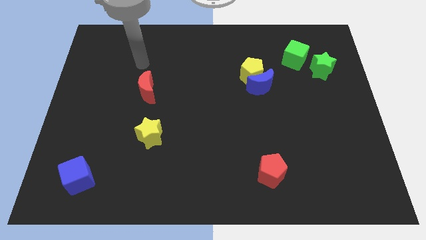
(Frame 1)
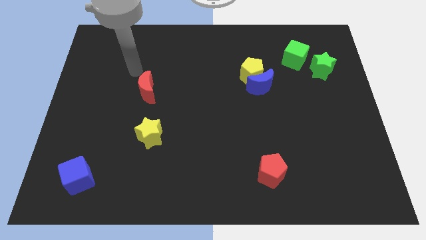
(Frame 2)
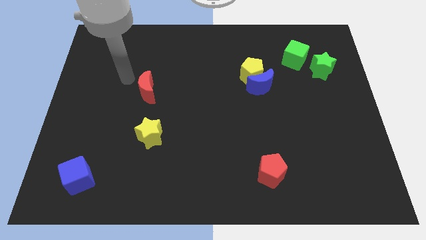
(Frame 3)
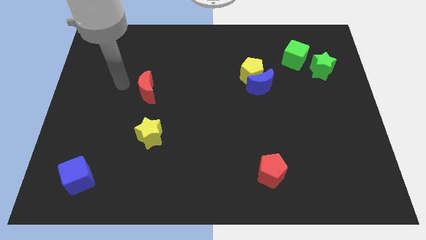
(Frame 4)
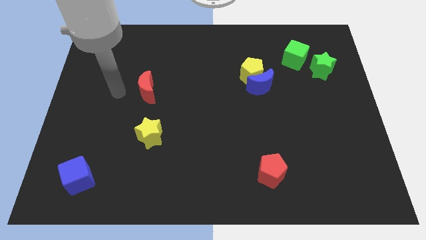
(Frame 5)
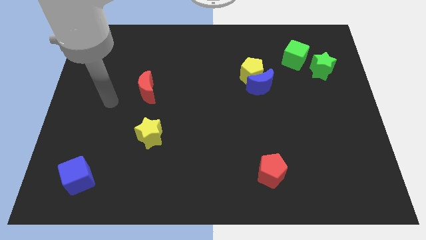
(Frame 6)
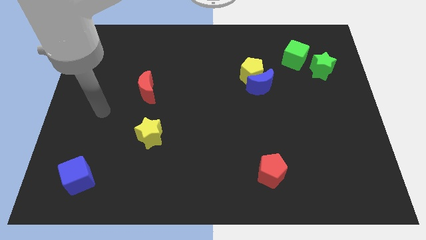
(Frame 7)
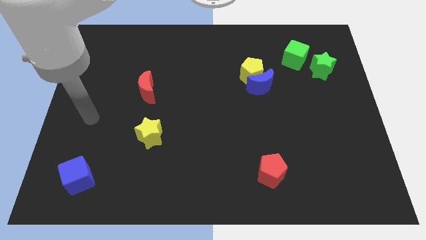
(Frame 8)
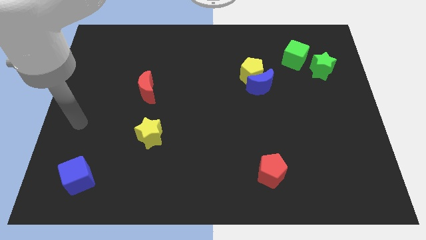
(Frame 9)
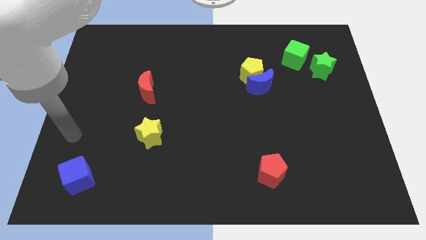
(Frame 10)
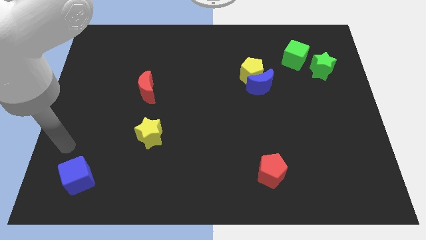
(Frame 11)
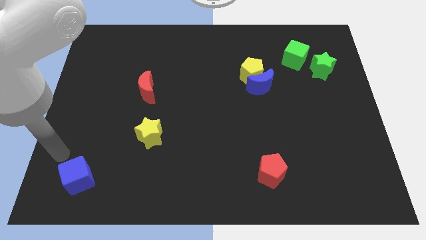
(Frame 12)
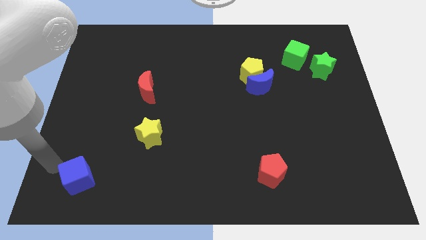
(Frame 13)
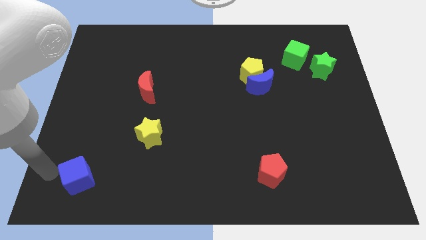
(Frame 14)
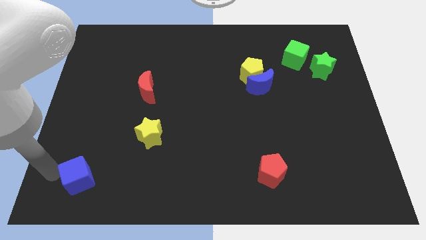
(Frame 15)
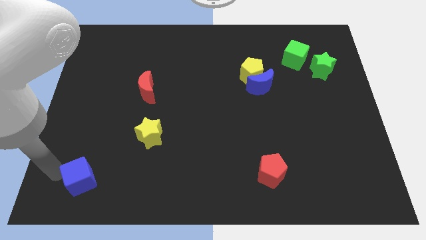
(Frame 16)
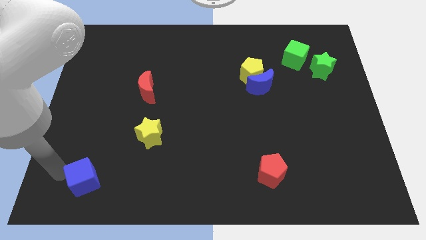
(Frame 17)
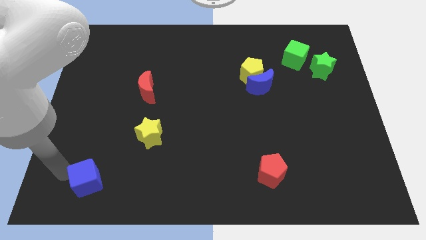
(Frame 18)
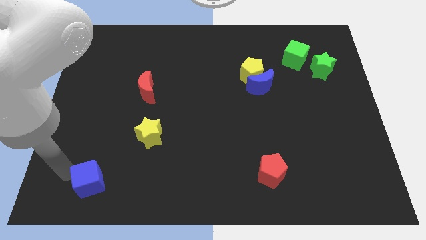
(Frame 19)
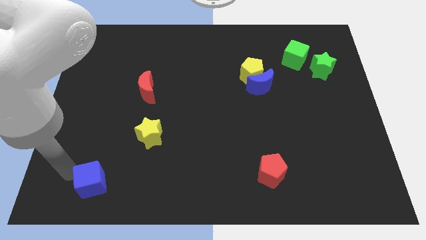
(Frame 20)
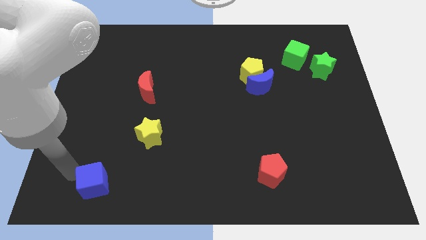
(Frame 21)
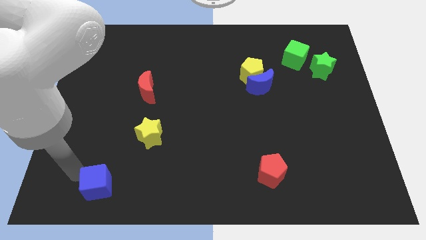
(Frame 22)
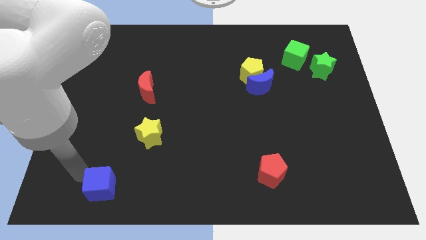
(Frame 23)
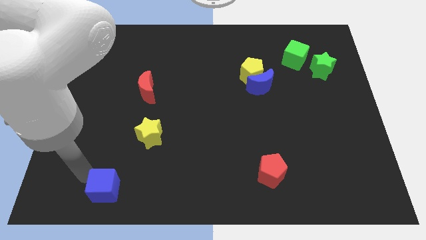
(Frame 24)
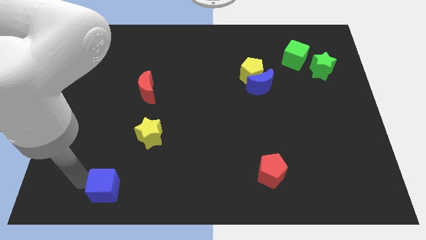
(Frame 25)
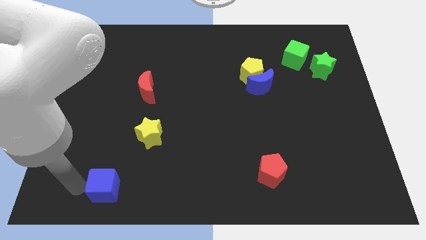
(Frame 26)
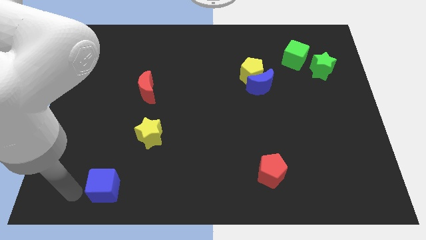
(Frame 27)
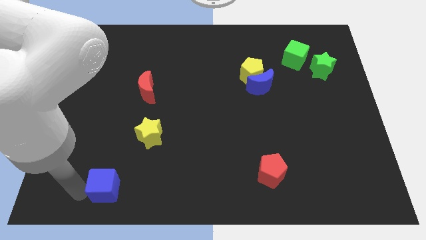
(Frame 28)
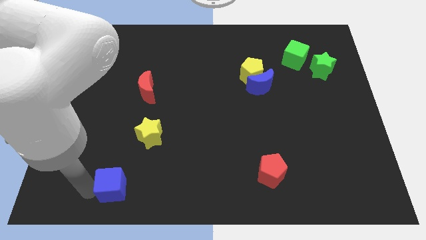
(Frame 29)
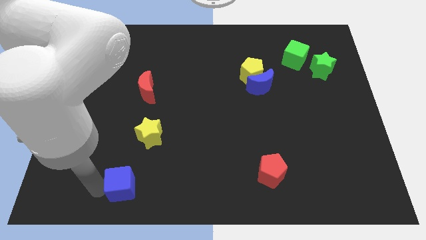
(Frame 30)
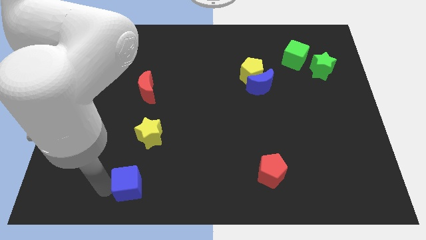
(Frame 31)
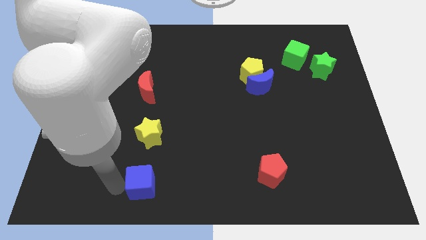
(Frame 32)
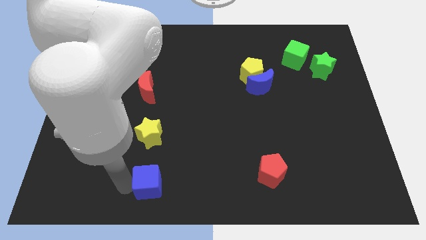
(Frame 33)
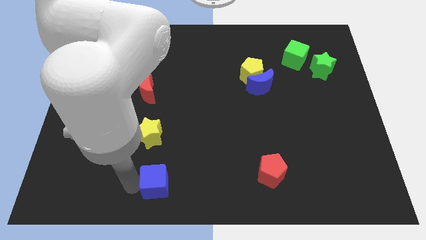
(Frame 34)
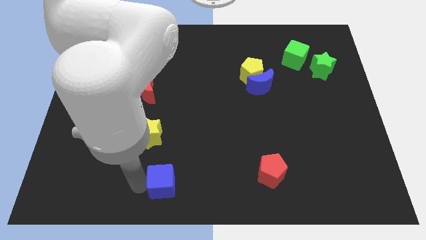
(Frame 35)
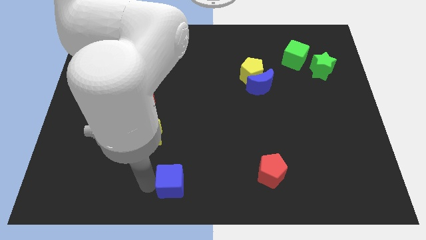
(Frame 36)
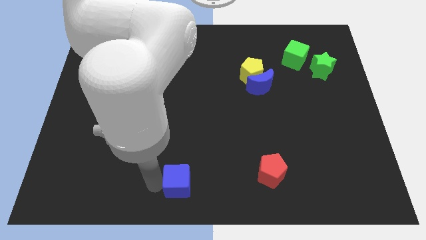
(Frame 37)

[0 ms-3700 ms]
slide the blue cube right

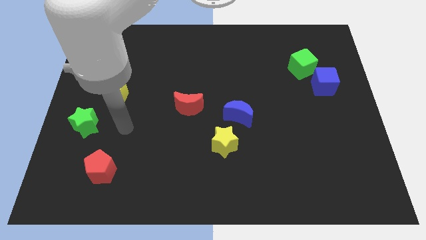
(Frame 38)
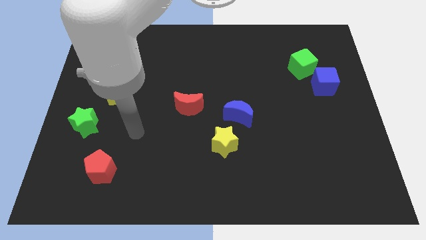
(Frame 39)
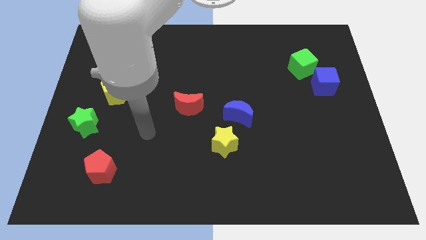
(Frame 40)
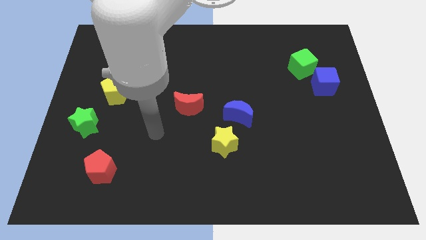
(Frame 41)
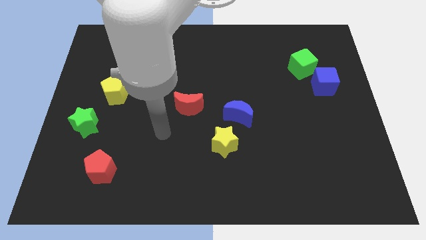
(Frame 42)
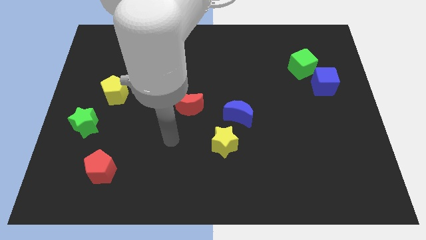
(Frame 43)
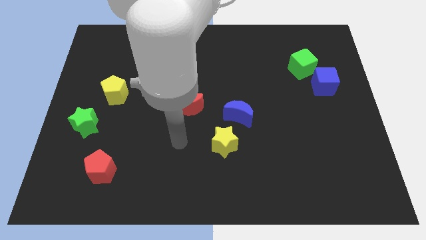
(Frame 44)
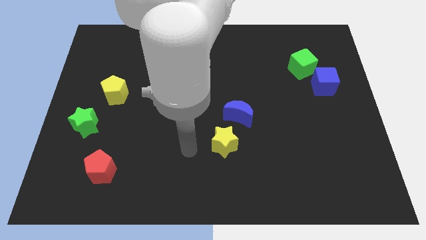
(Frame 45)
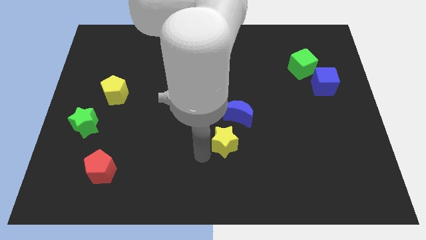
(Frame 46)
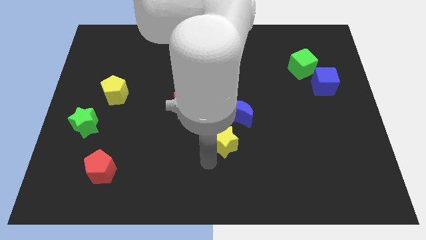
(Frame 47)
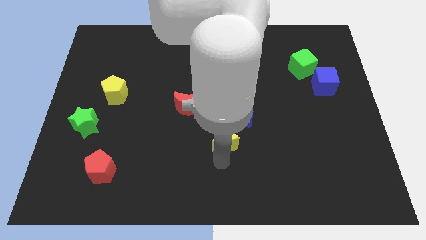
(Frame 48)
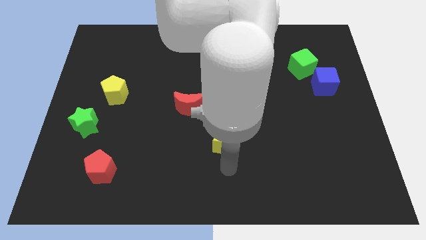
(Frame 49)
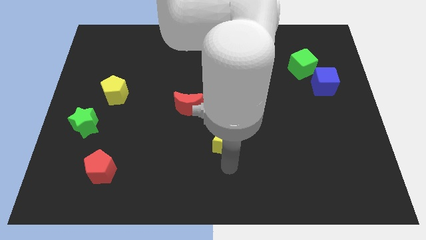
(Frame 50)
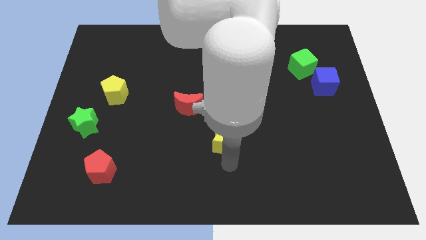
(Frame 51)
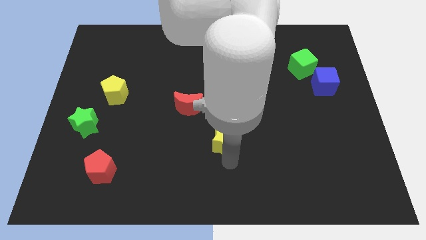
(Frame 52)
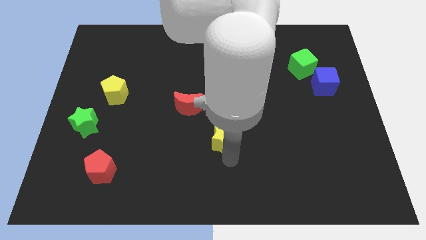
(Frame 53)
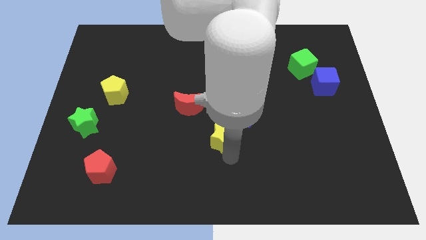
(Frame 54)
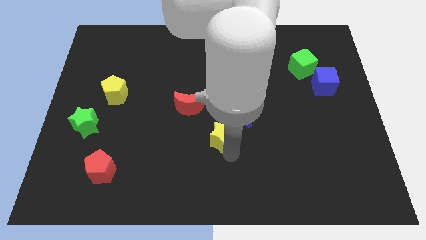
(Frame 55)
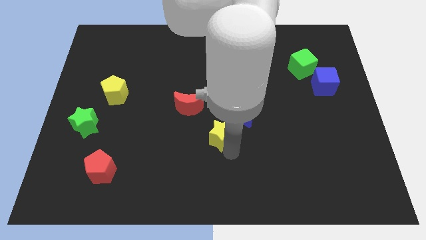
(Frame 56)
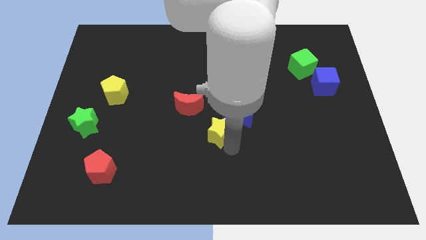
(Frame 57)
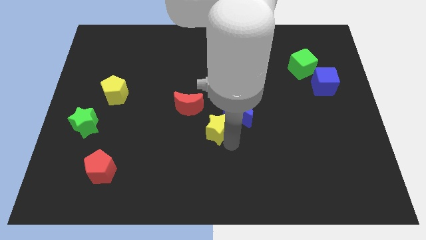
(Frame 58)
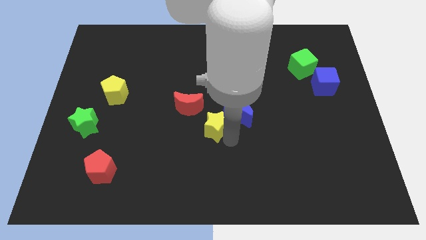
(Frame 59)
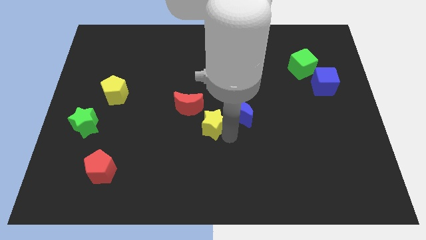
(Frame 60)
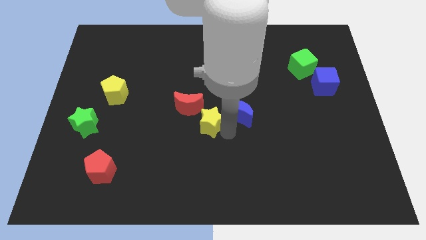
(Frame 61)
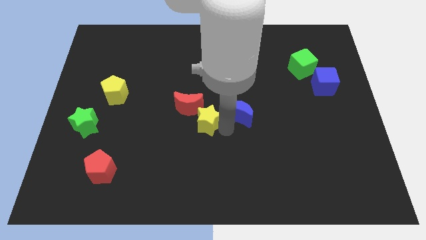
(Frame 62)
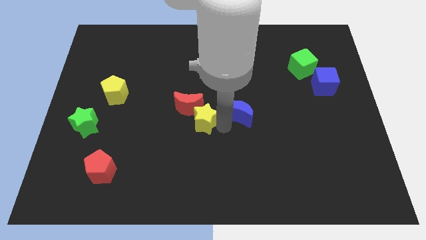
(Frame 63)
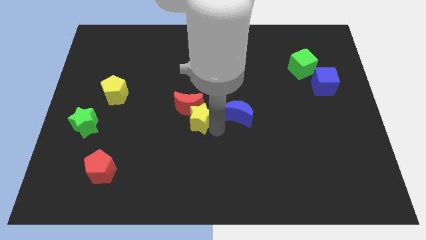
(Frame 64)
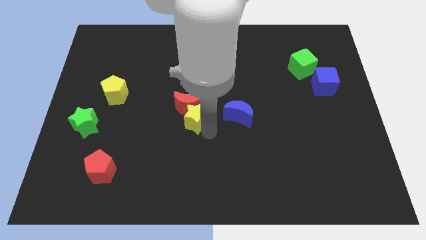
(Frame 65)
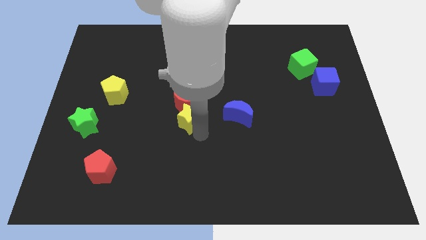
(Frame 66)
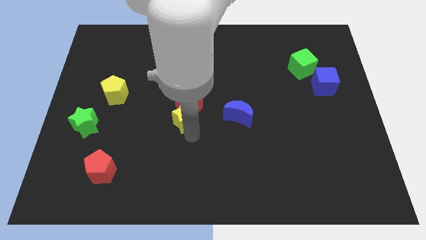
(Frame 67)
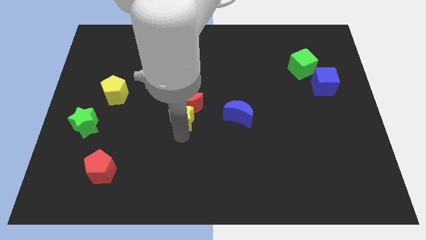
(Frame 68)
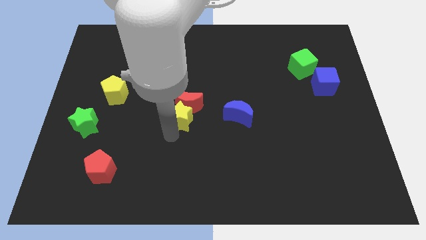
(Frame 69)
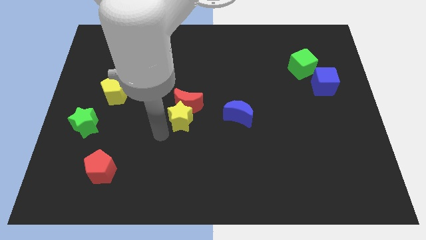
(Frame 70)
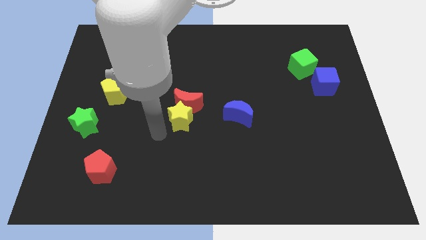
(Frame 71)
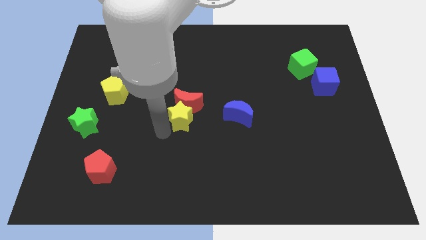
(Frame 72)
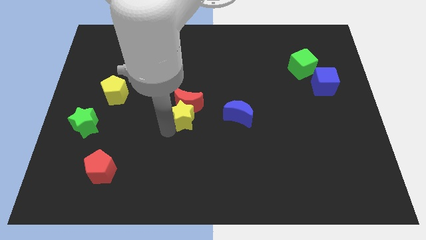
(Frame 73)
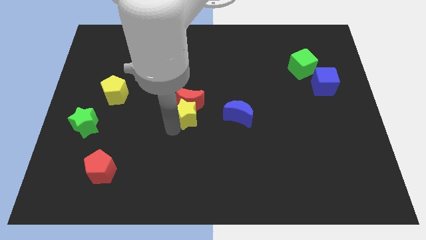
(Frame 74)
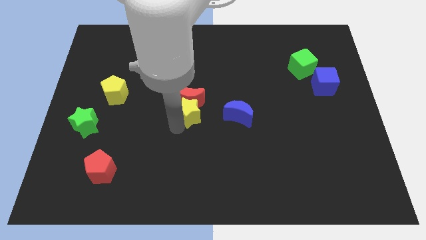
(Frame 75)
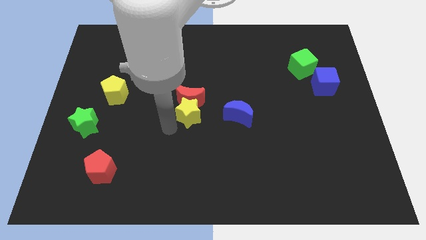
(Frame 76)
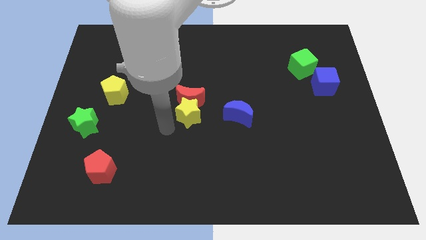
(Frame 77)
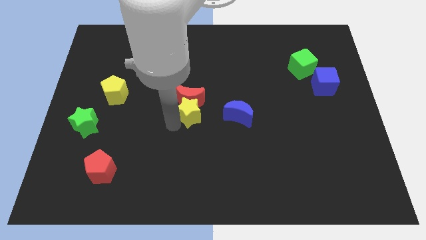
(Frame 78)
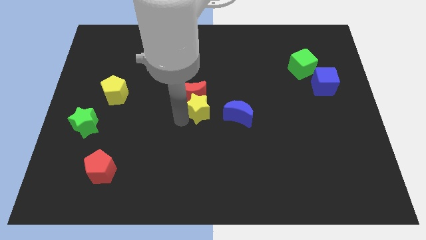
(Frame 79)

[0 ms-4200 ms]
slide the yellow star slightly upwards
